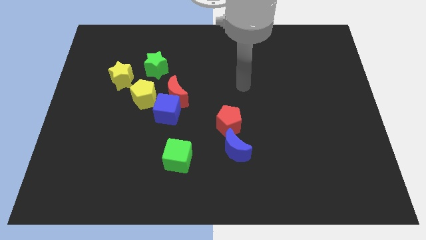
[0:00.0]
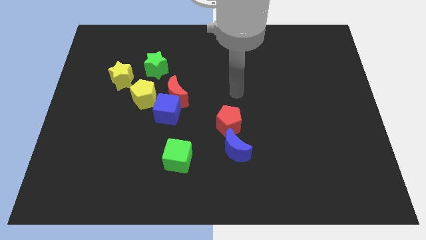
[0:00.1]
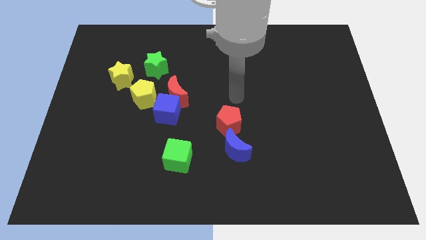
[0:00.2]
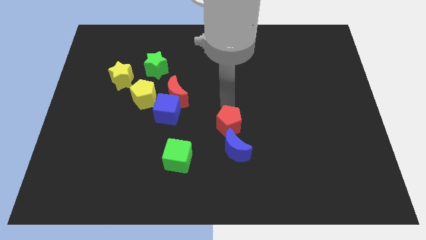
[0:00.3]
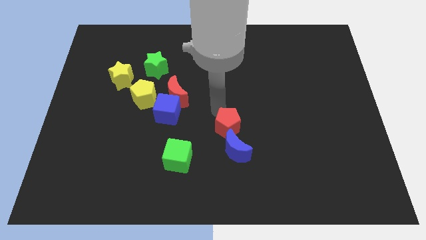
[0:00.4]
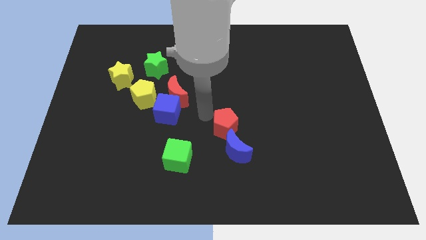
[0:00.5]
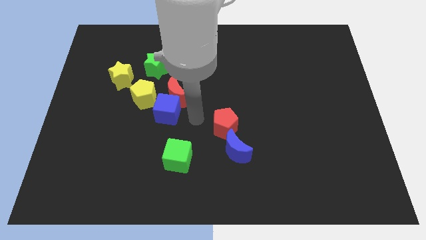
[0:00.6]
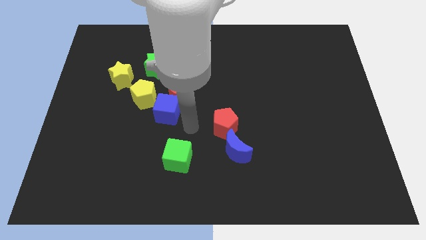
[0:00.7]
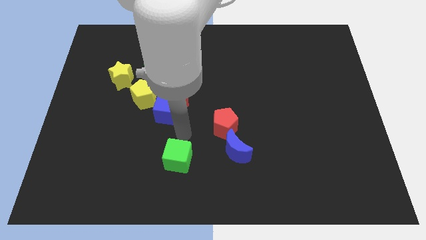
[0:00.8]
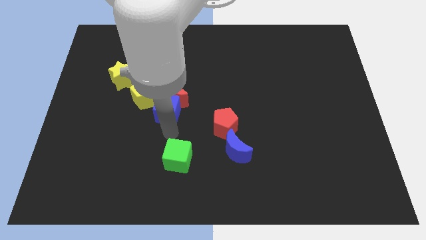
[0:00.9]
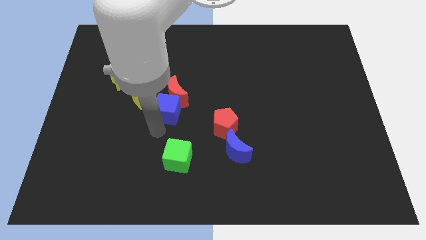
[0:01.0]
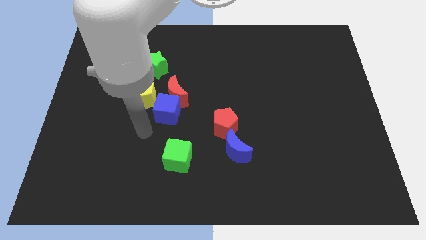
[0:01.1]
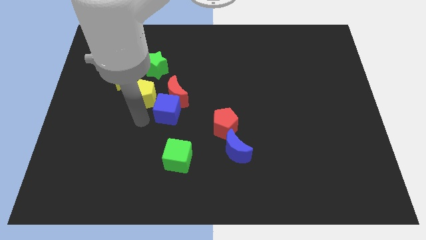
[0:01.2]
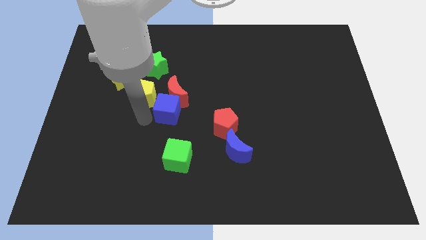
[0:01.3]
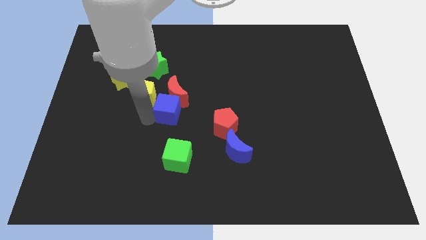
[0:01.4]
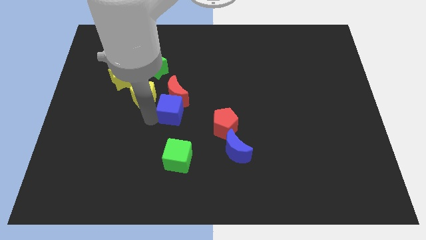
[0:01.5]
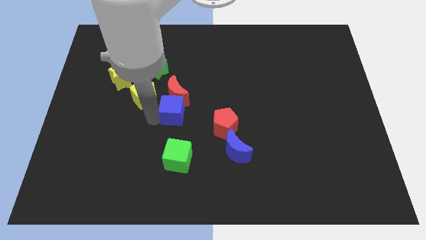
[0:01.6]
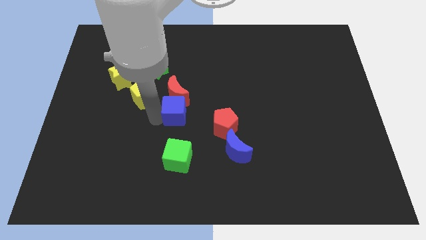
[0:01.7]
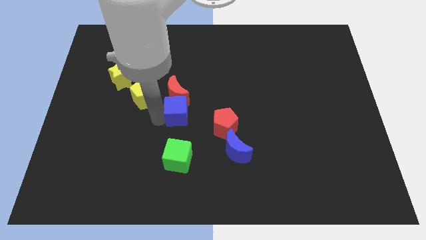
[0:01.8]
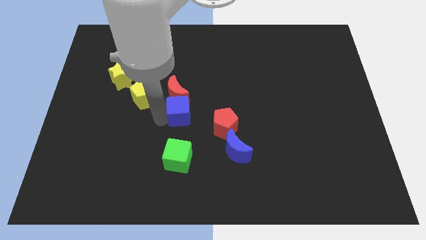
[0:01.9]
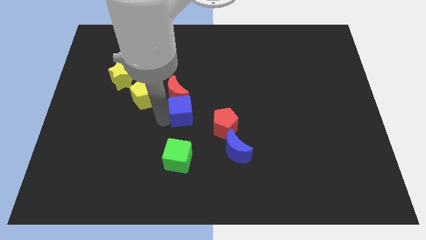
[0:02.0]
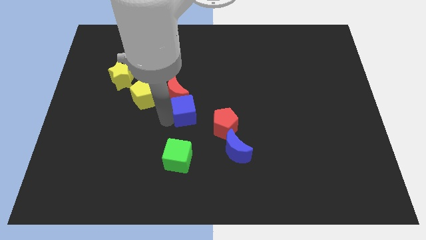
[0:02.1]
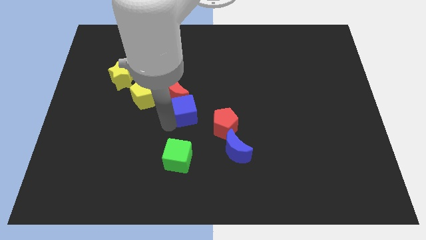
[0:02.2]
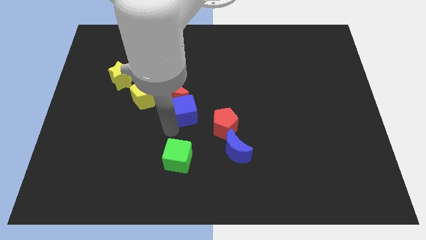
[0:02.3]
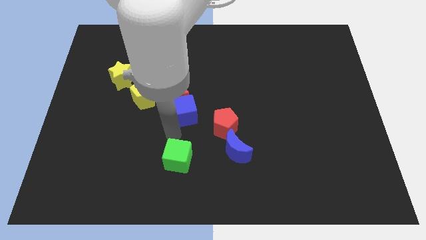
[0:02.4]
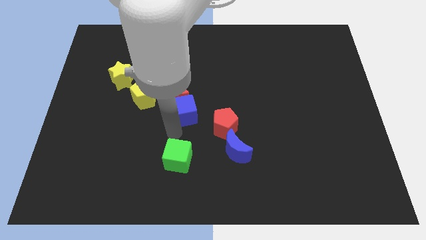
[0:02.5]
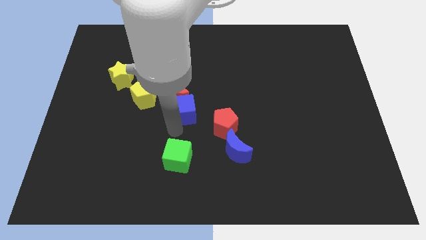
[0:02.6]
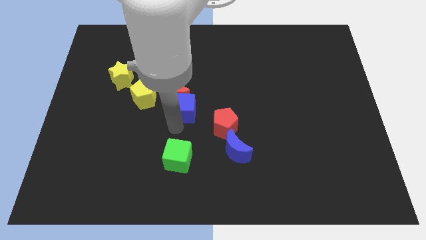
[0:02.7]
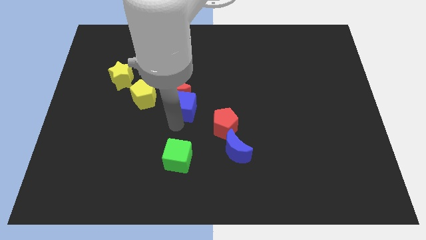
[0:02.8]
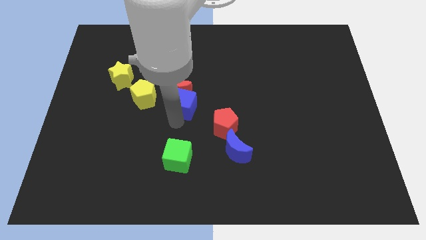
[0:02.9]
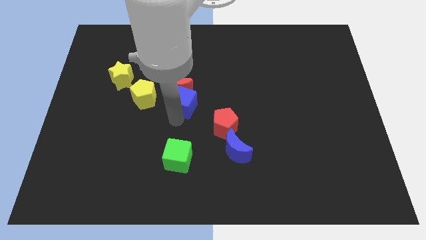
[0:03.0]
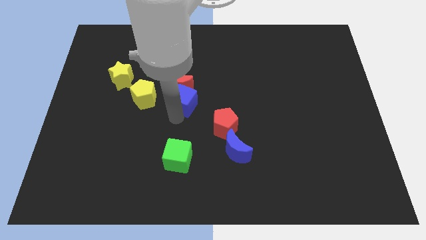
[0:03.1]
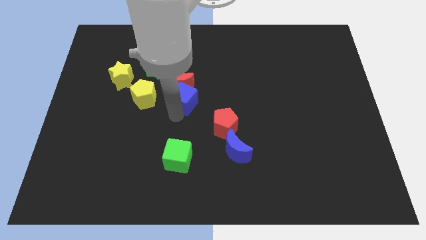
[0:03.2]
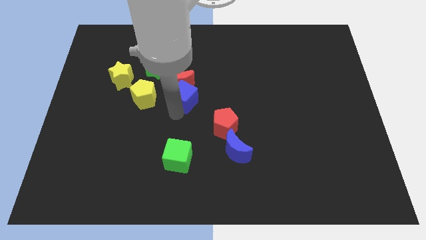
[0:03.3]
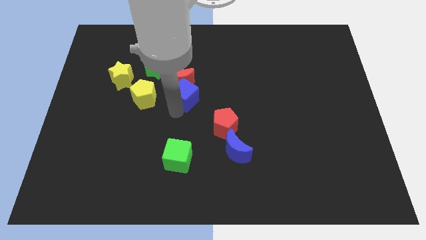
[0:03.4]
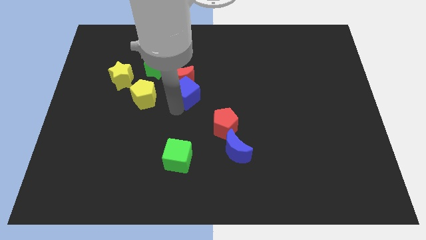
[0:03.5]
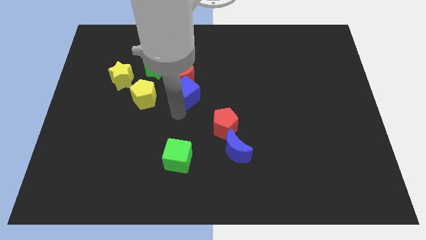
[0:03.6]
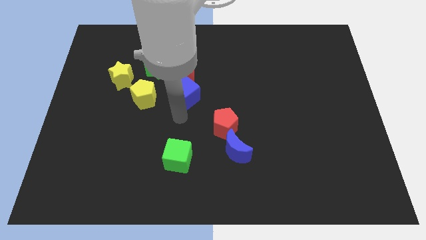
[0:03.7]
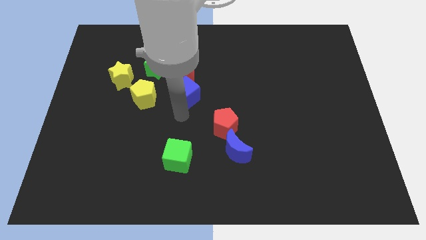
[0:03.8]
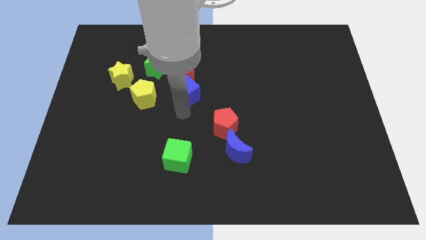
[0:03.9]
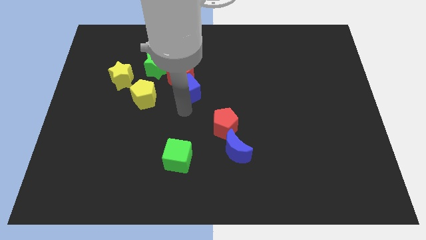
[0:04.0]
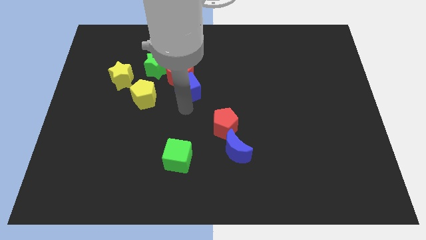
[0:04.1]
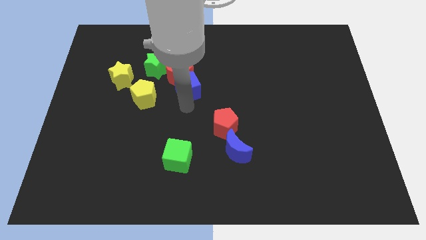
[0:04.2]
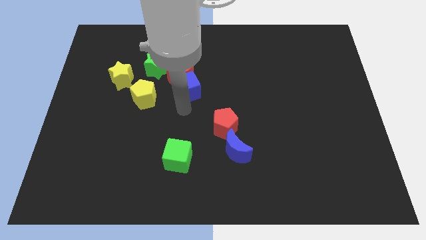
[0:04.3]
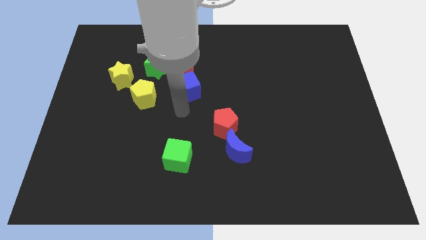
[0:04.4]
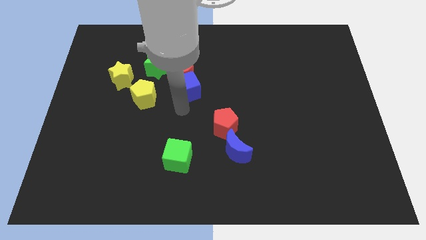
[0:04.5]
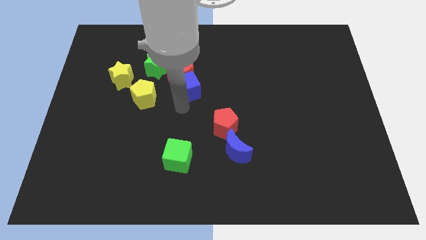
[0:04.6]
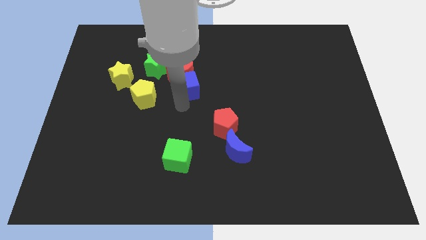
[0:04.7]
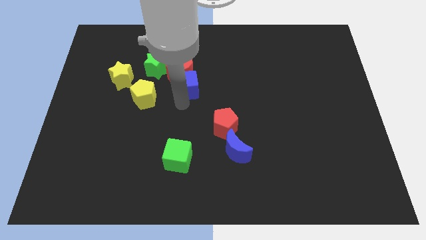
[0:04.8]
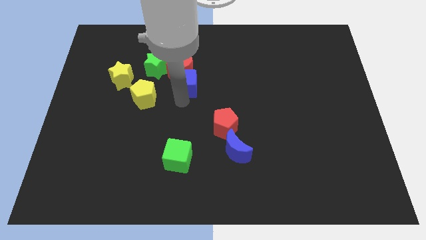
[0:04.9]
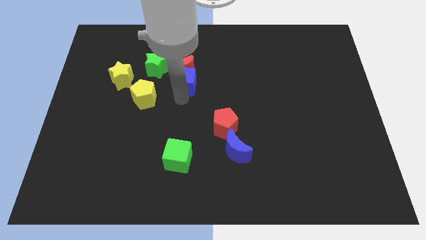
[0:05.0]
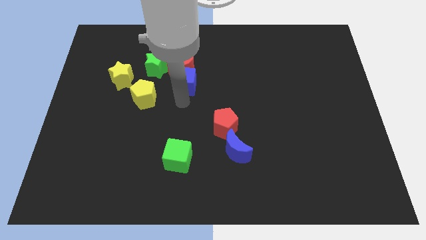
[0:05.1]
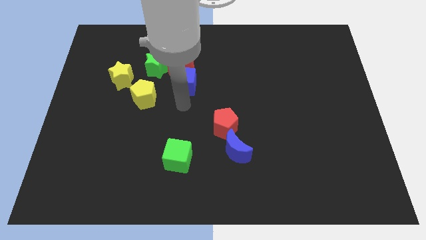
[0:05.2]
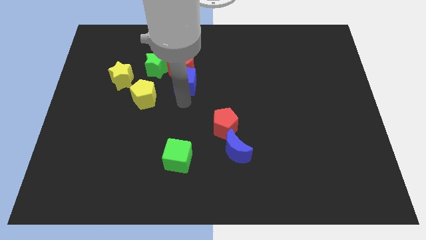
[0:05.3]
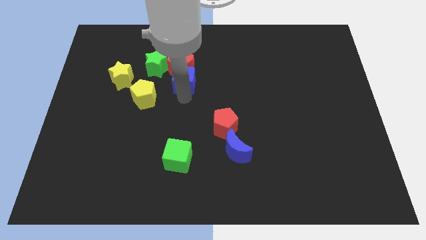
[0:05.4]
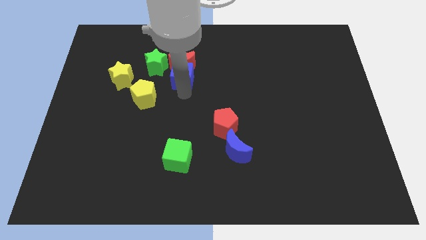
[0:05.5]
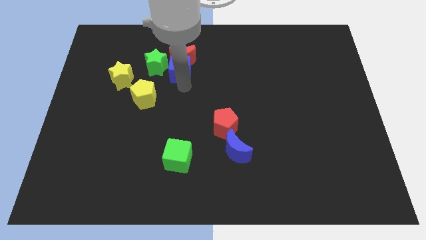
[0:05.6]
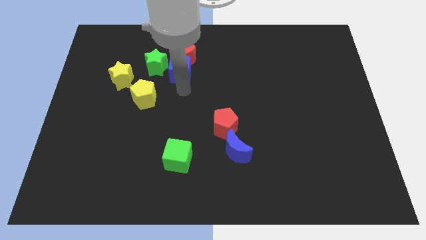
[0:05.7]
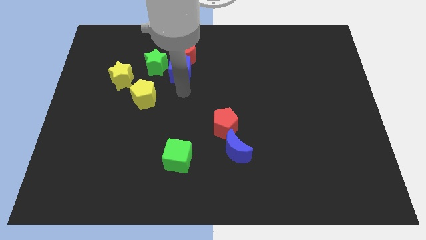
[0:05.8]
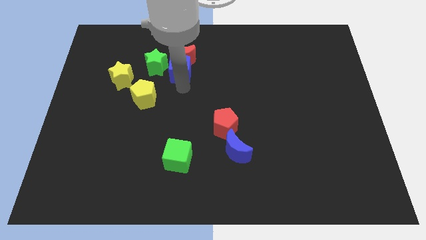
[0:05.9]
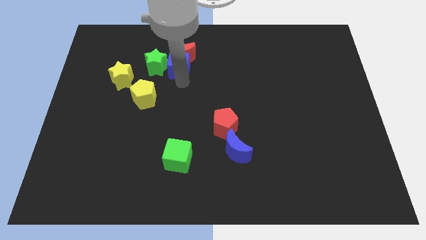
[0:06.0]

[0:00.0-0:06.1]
slide the blue cube to the top right side of the green star

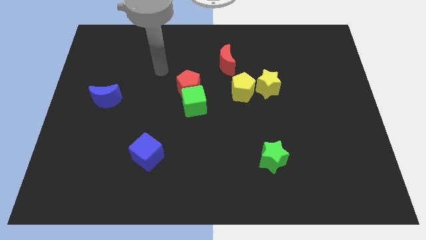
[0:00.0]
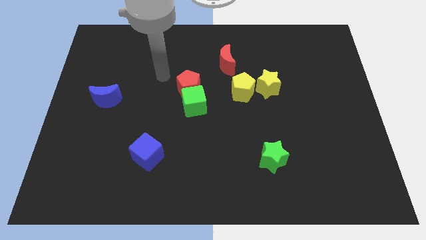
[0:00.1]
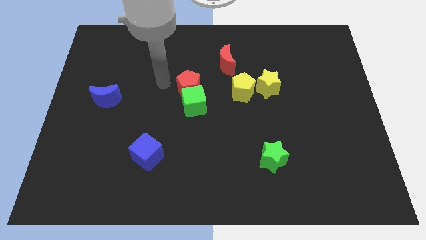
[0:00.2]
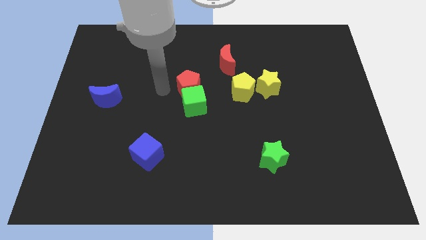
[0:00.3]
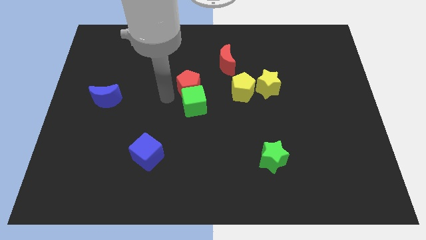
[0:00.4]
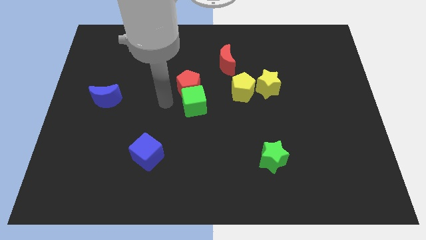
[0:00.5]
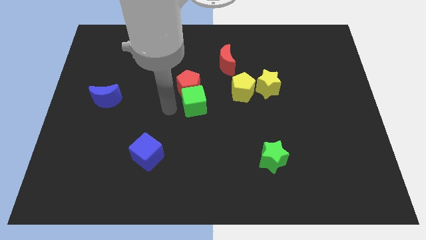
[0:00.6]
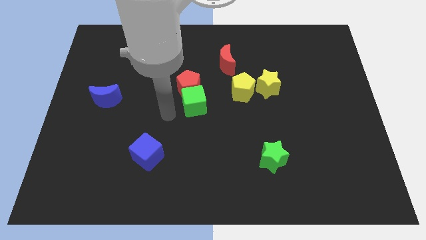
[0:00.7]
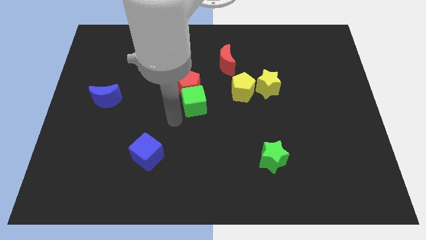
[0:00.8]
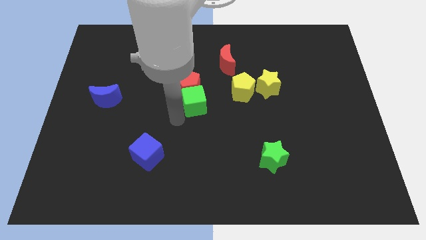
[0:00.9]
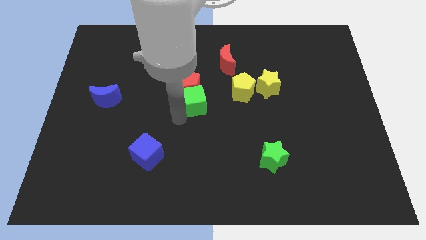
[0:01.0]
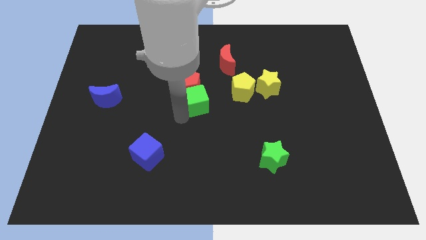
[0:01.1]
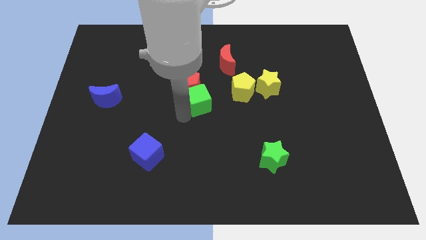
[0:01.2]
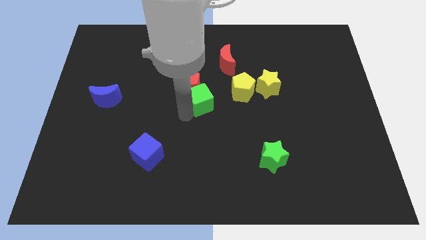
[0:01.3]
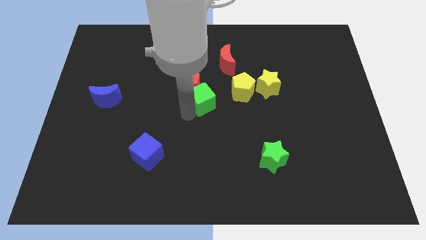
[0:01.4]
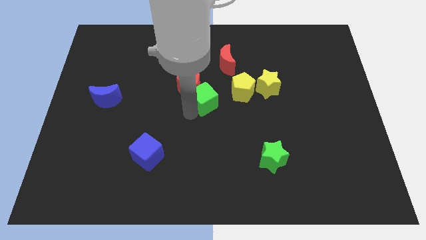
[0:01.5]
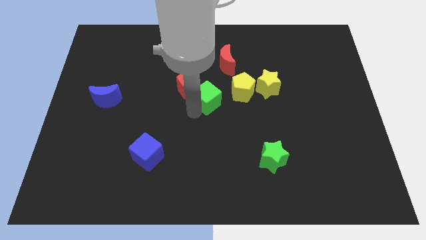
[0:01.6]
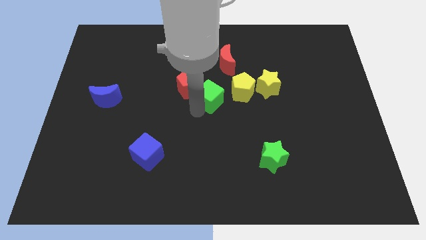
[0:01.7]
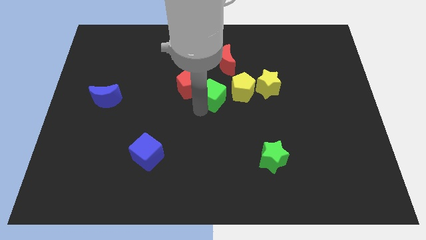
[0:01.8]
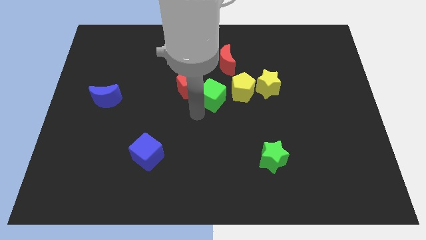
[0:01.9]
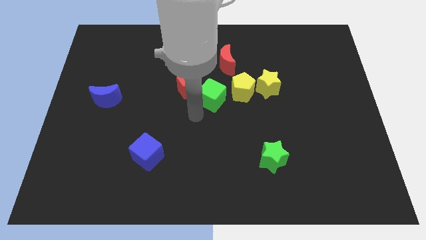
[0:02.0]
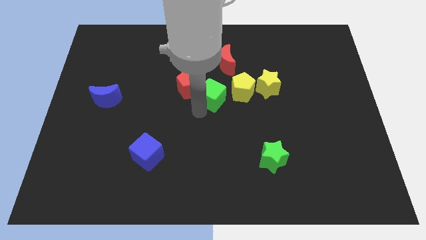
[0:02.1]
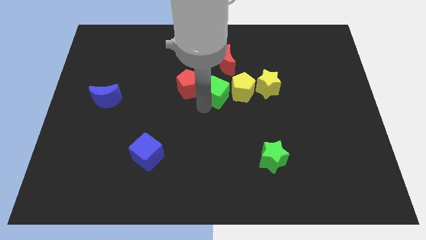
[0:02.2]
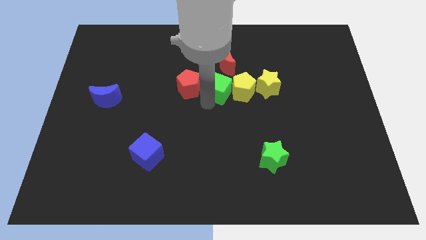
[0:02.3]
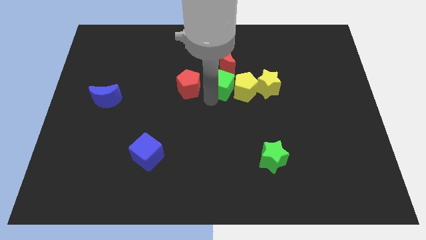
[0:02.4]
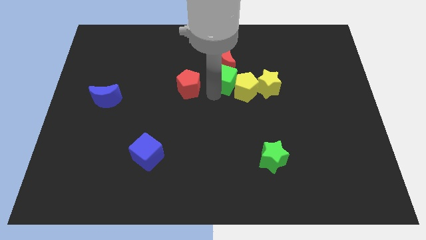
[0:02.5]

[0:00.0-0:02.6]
slide the green cube diagonally down and to the right of the red moon

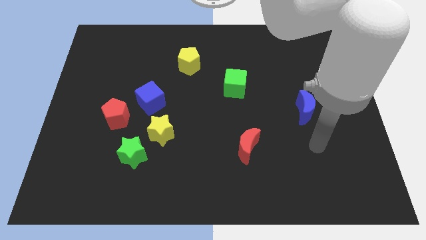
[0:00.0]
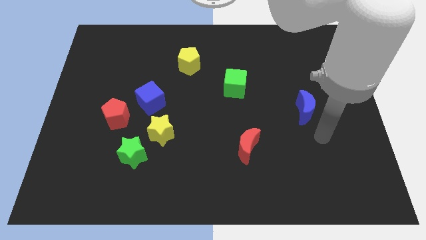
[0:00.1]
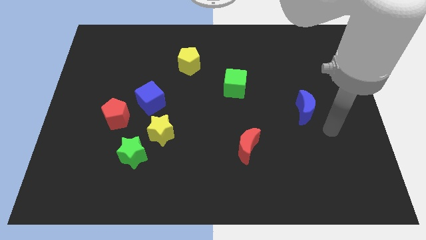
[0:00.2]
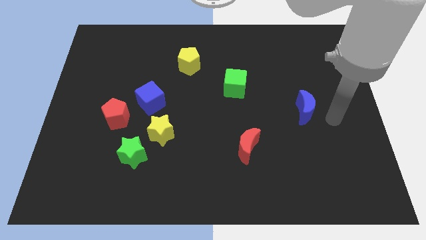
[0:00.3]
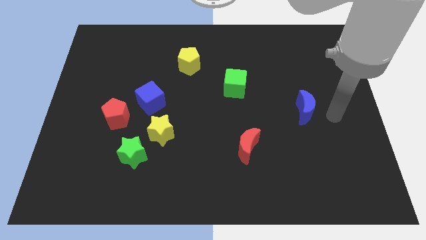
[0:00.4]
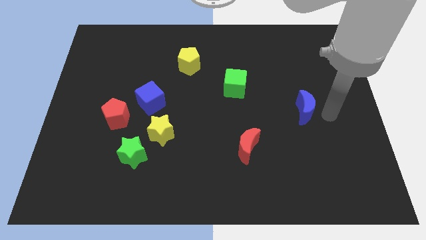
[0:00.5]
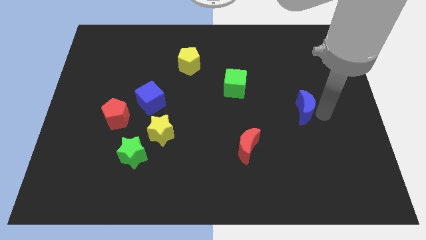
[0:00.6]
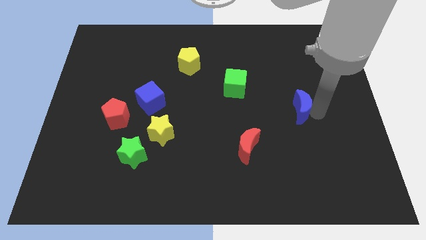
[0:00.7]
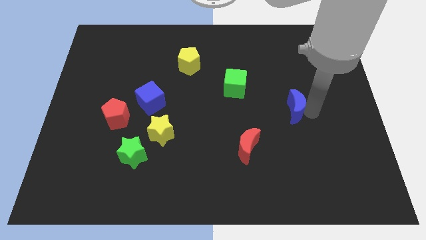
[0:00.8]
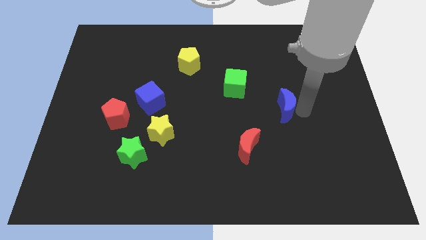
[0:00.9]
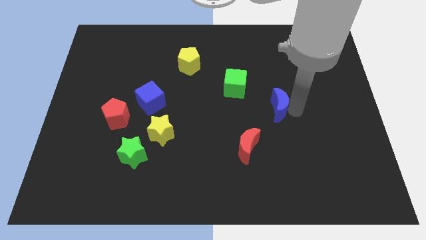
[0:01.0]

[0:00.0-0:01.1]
slide the blue moon to the bottom right side of the green cube
